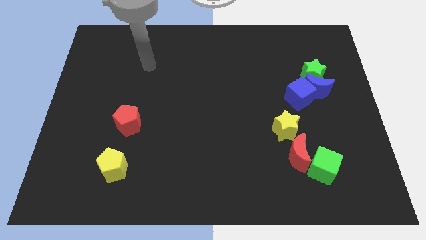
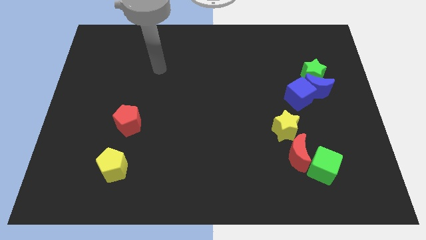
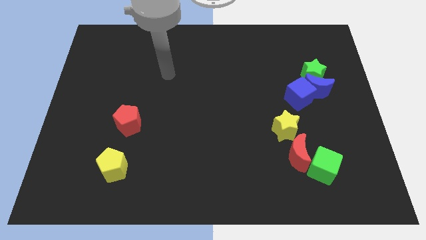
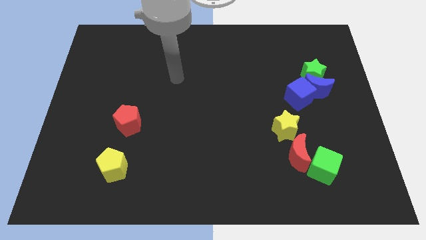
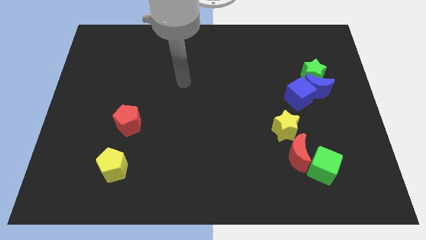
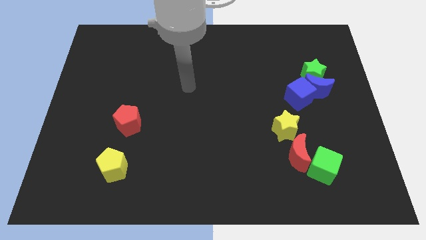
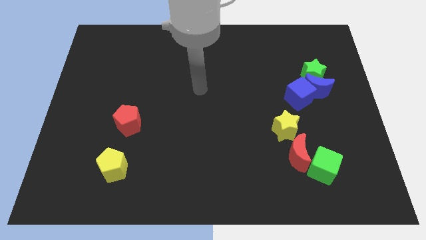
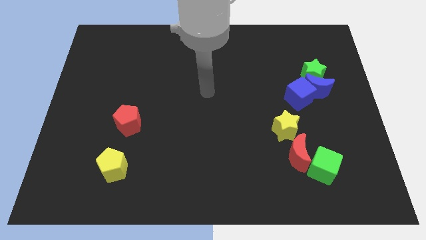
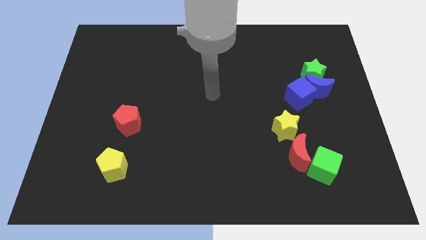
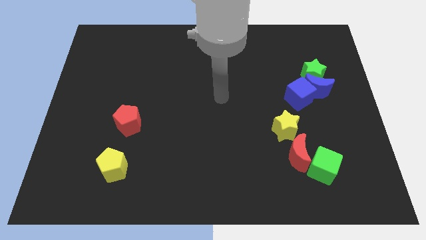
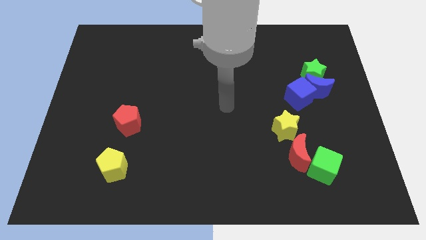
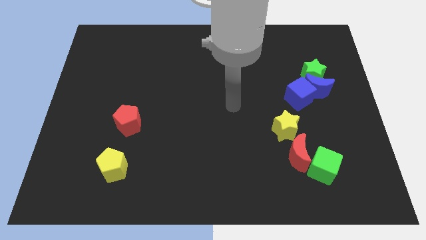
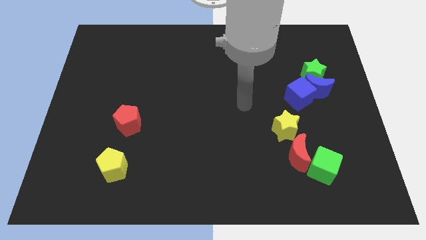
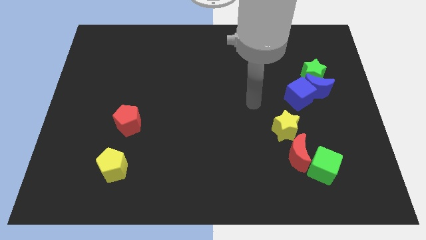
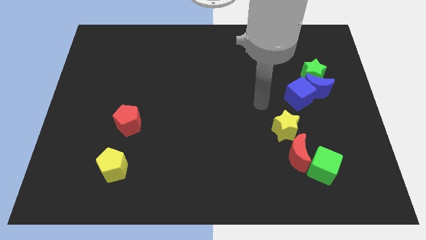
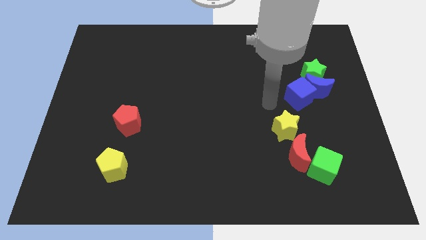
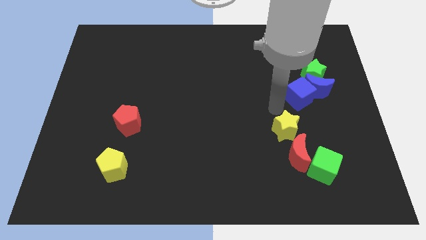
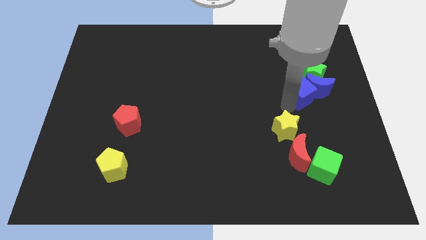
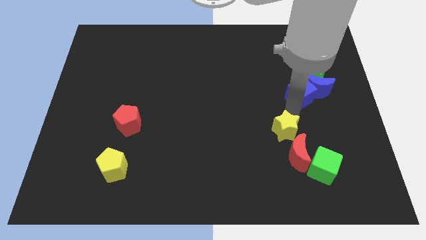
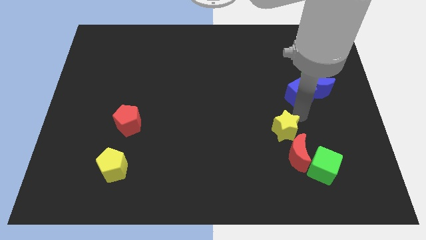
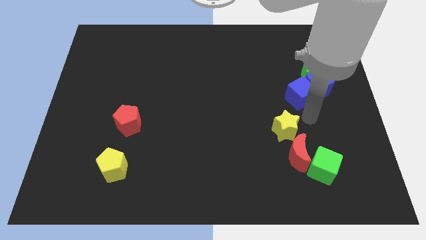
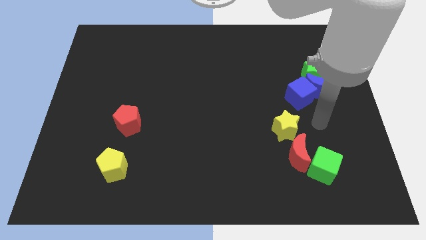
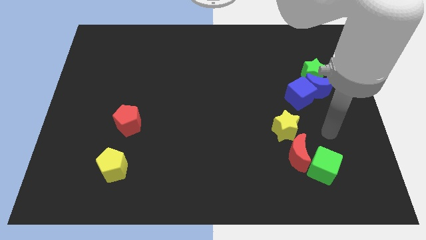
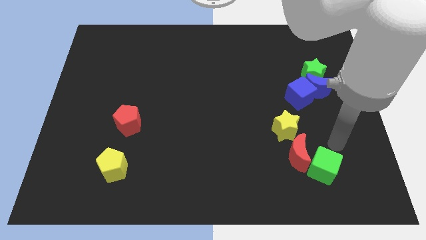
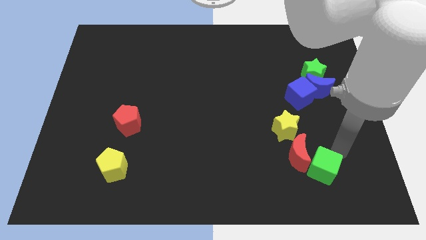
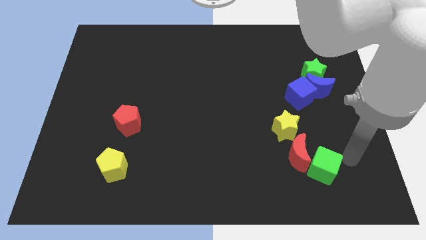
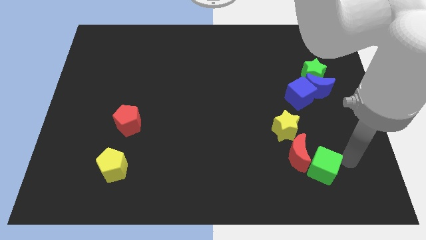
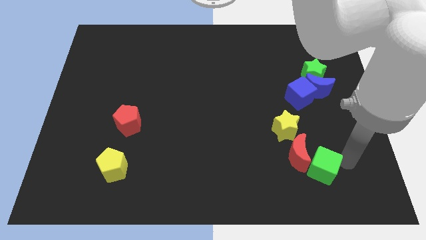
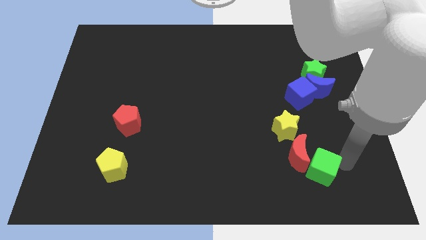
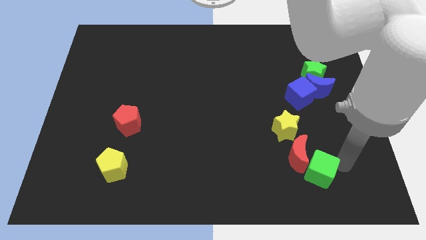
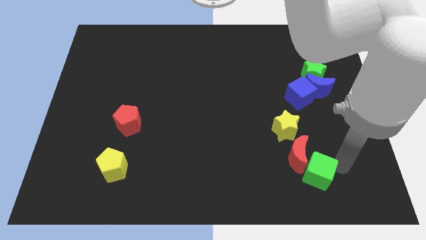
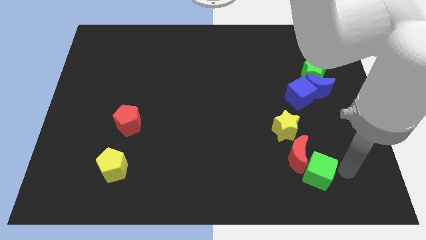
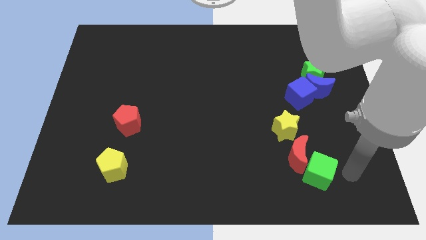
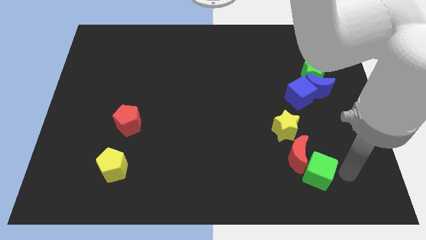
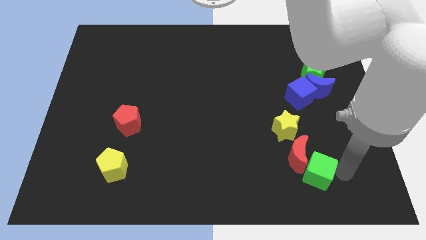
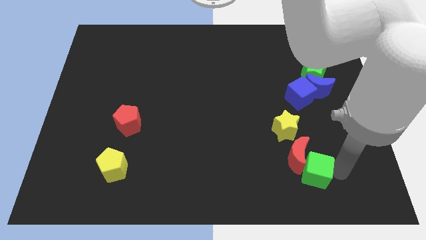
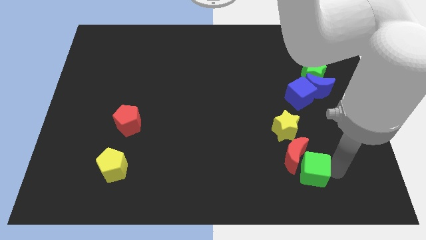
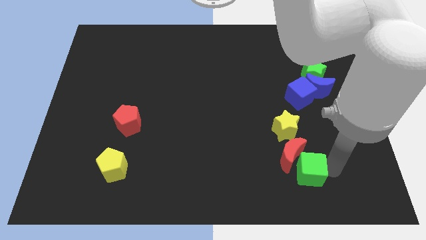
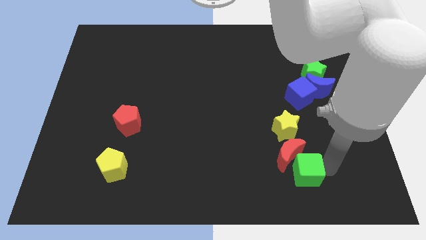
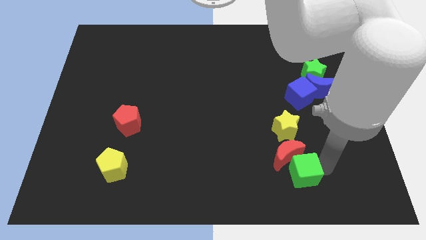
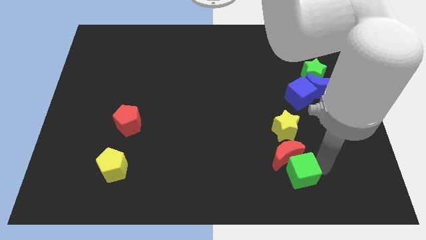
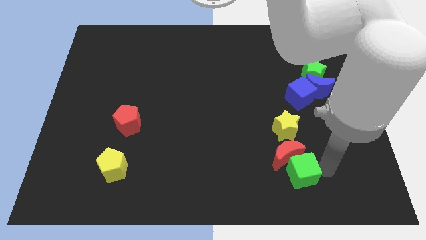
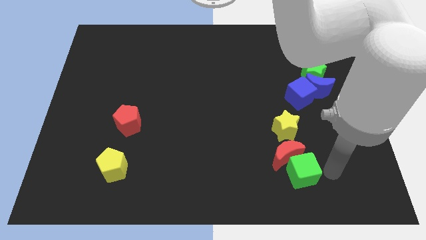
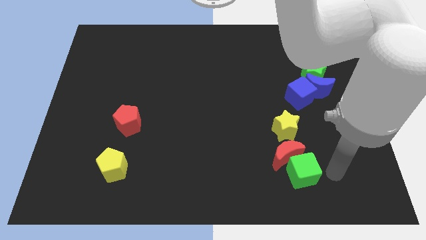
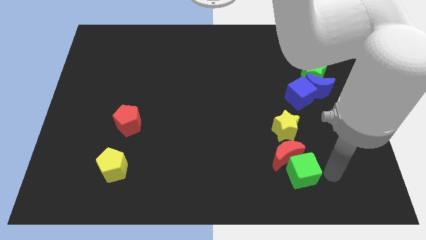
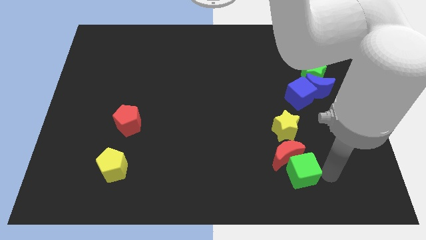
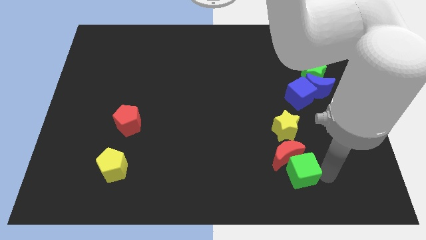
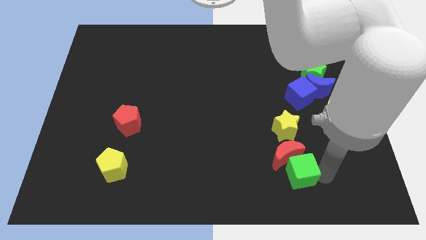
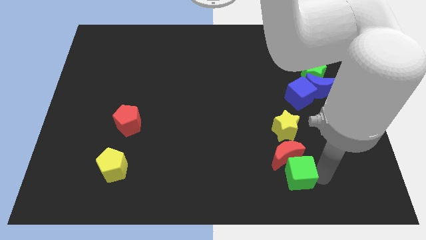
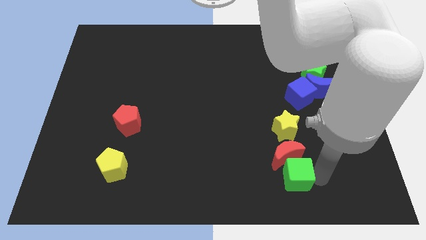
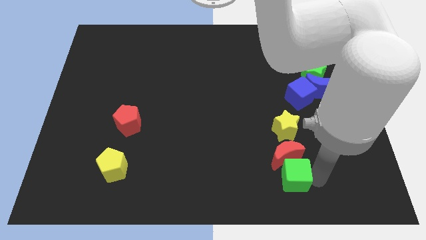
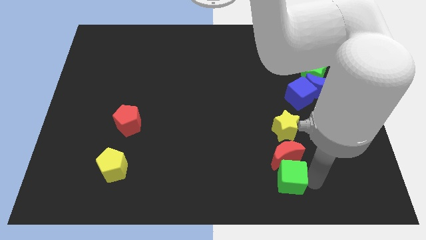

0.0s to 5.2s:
move the green cube a bit to the left

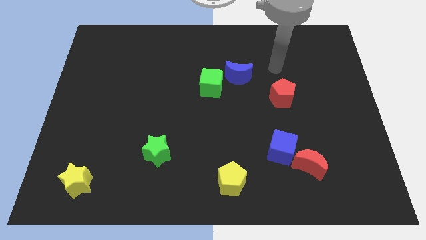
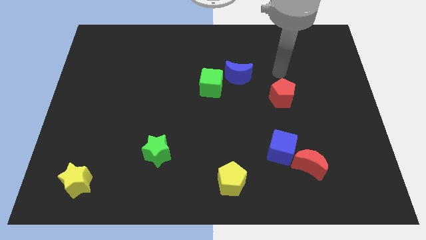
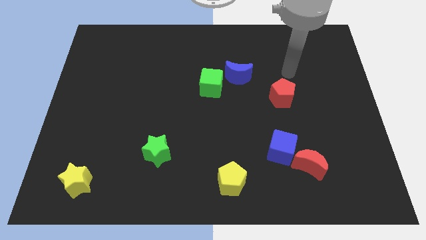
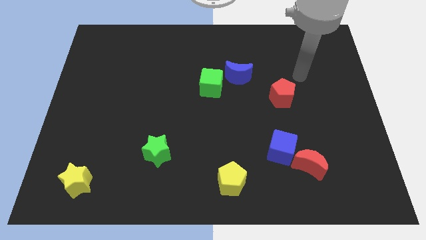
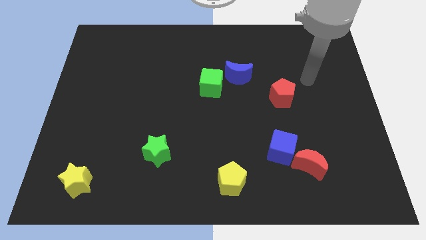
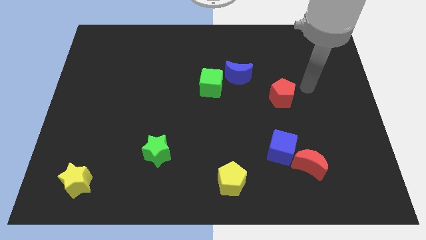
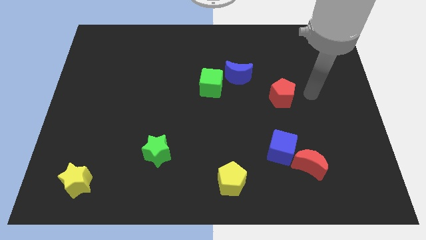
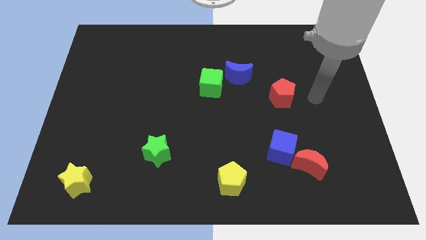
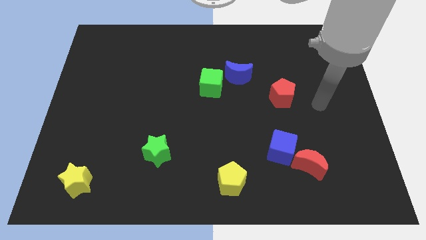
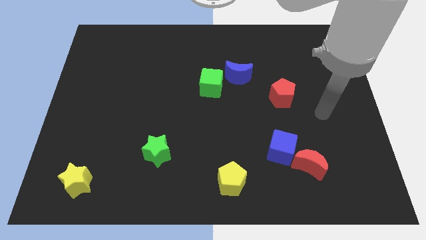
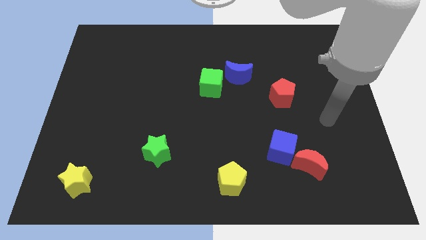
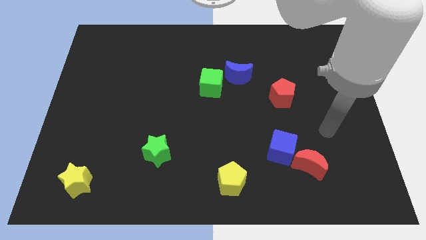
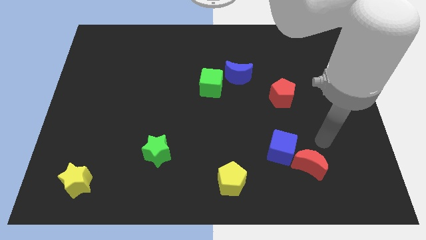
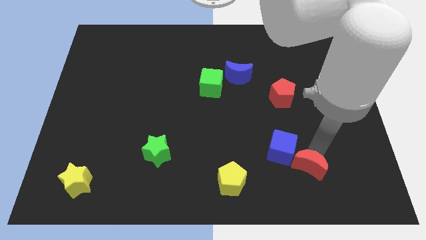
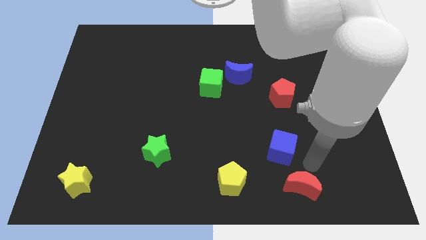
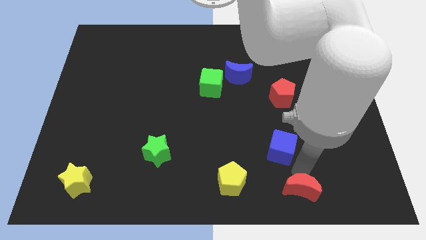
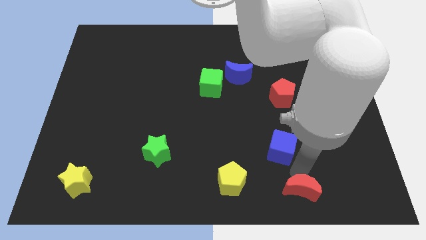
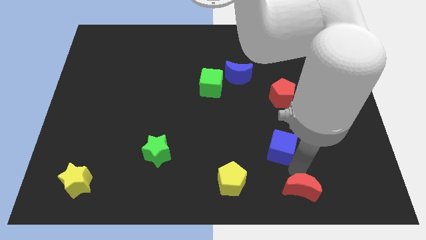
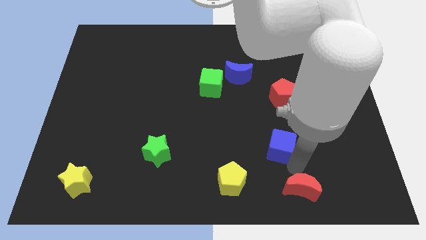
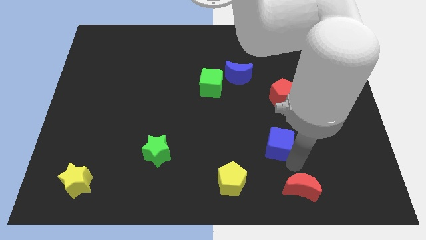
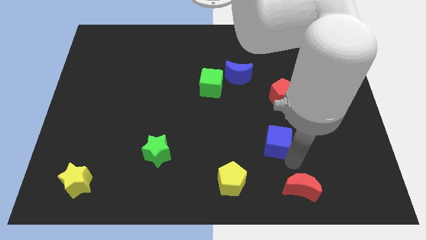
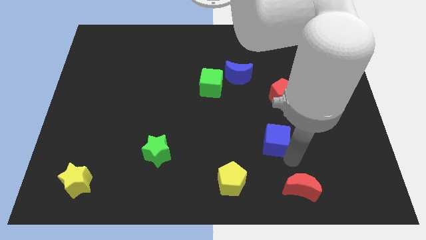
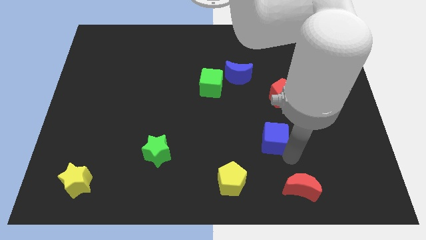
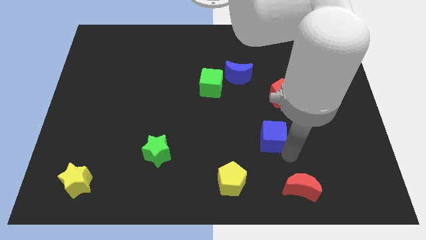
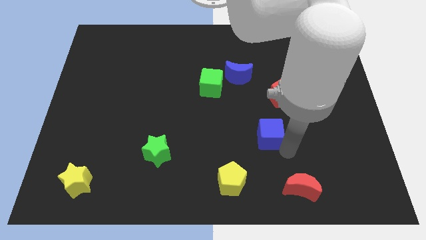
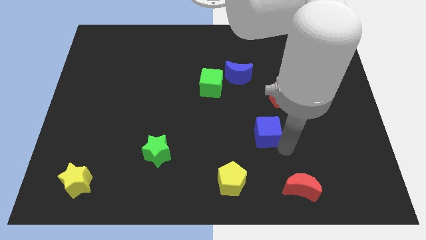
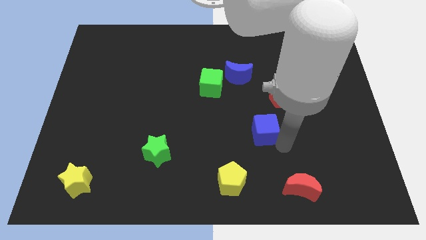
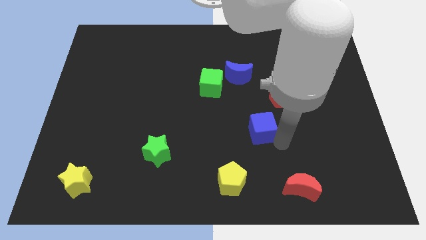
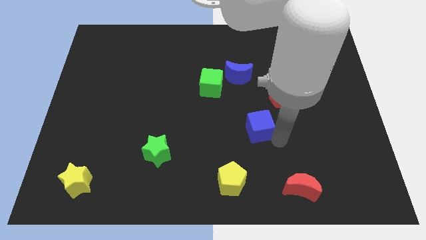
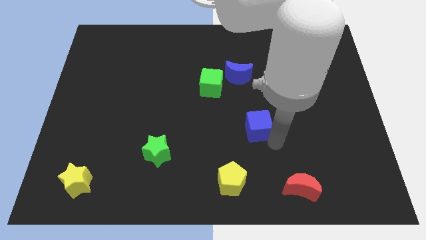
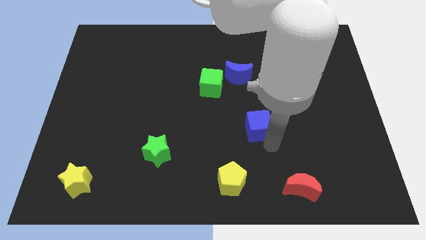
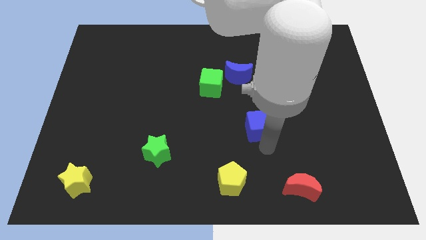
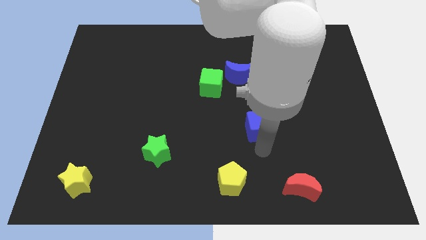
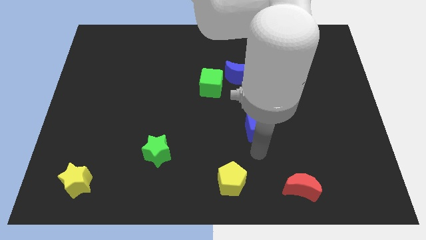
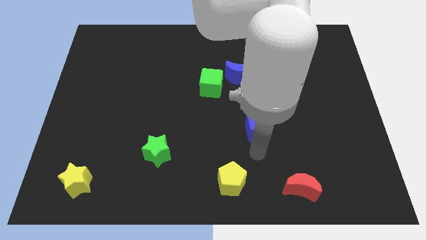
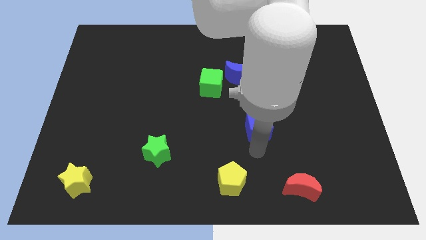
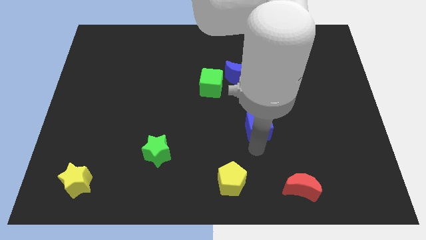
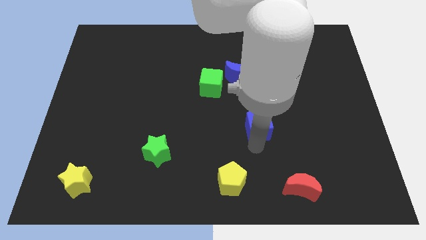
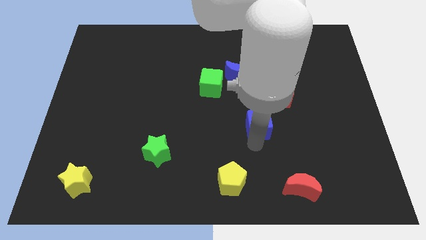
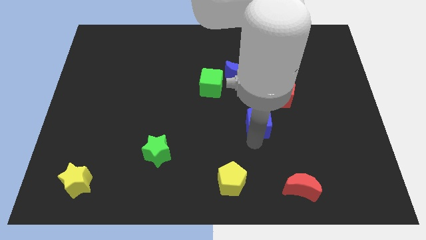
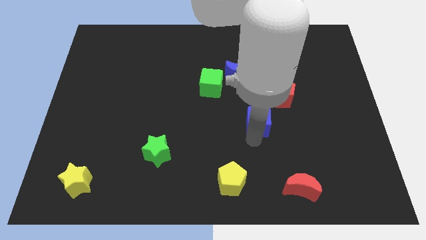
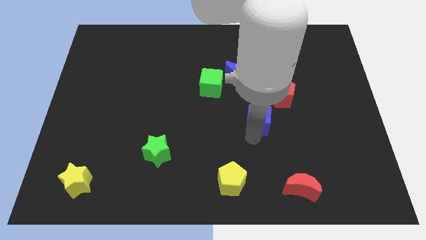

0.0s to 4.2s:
push the blue cube slightly upwards
